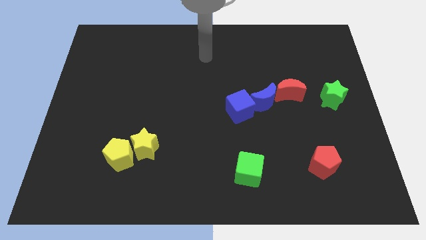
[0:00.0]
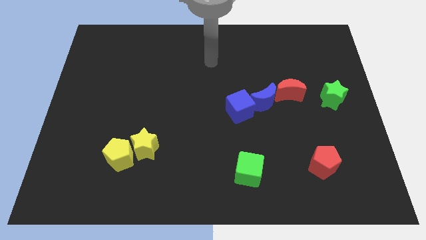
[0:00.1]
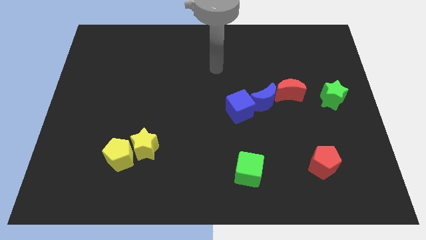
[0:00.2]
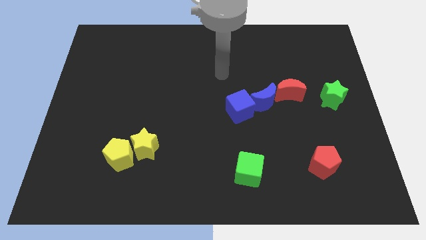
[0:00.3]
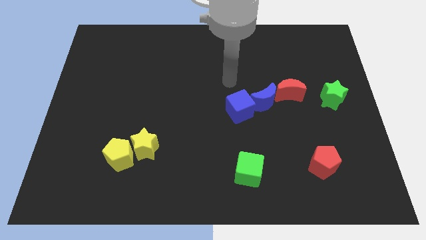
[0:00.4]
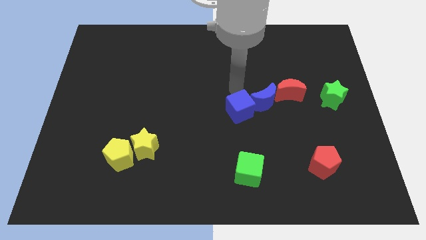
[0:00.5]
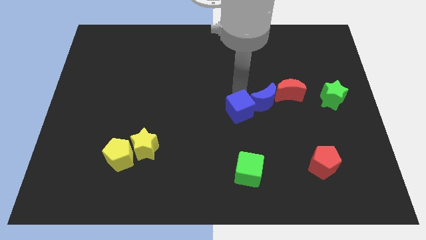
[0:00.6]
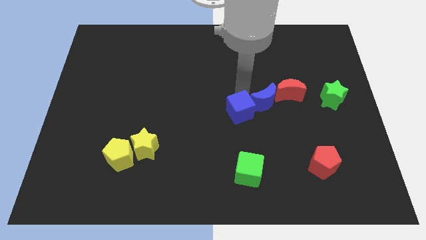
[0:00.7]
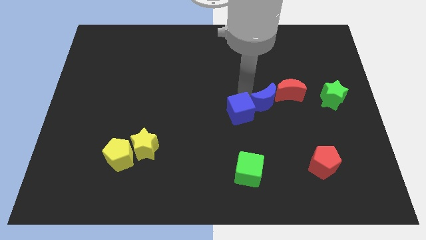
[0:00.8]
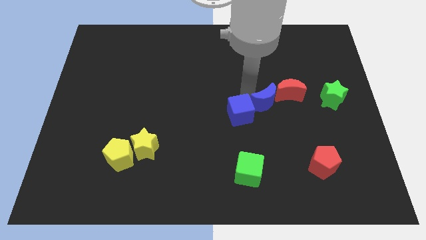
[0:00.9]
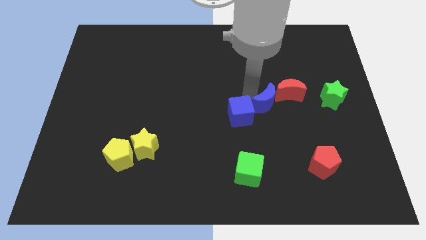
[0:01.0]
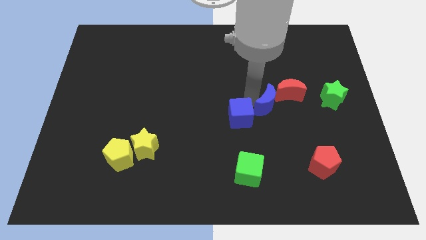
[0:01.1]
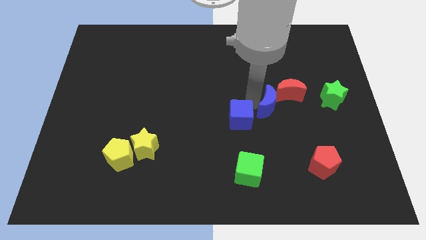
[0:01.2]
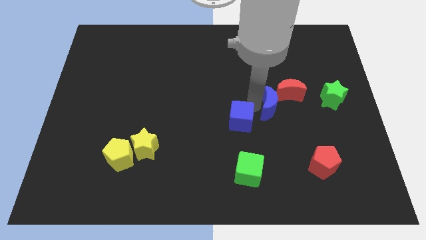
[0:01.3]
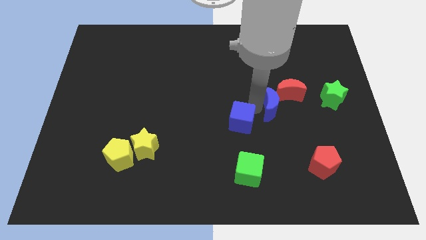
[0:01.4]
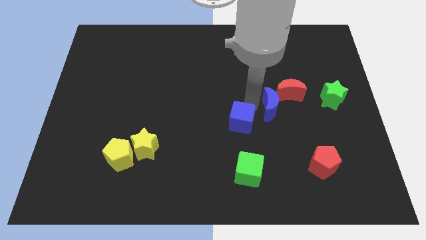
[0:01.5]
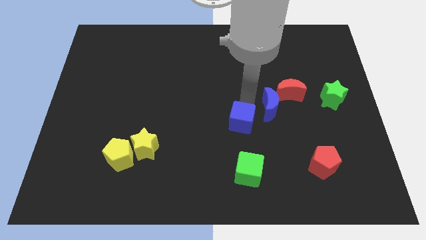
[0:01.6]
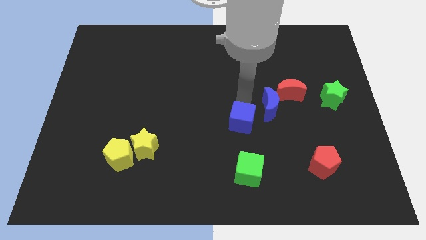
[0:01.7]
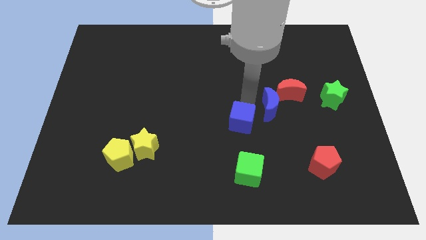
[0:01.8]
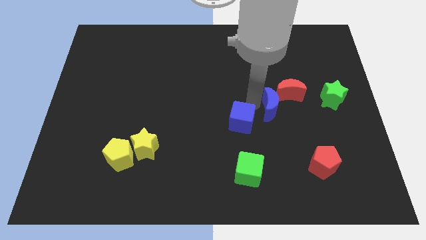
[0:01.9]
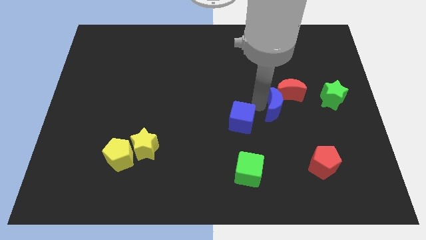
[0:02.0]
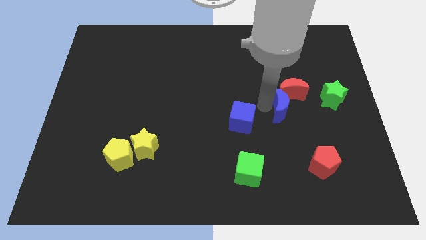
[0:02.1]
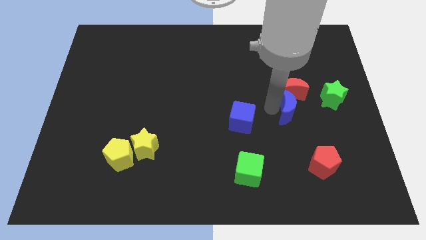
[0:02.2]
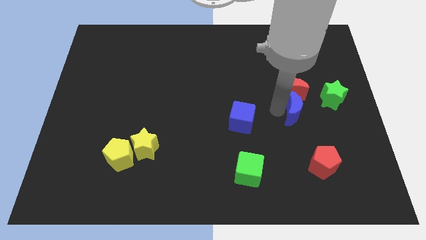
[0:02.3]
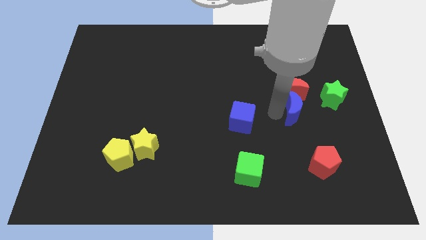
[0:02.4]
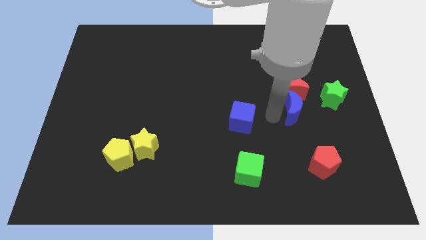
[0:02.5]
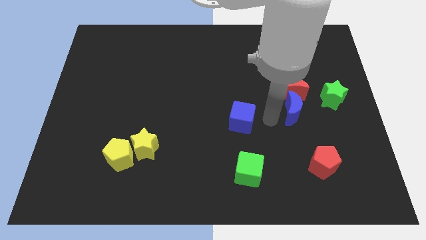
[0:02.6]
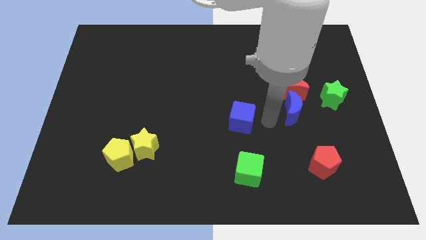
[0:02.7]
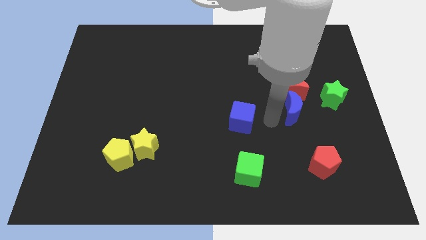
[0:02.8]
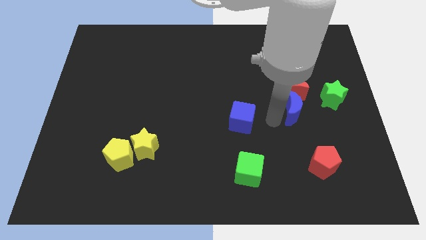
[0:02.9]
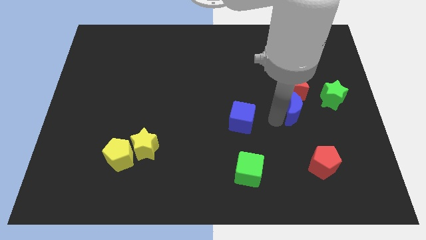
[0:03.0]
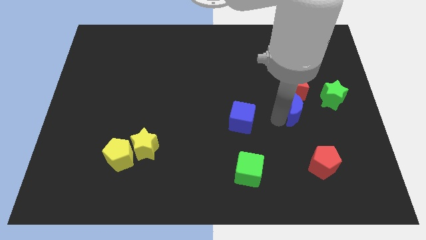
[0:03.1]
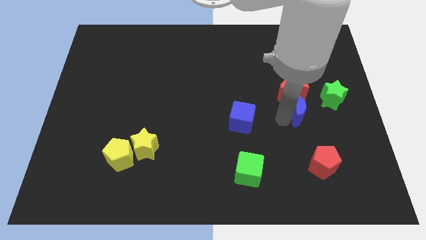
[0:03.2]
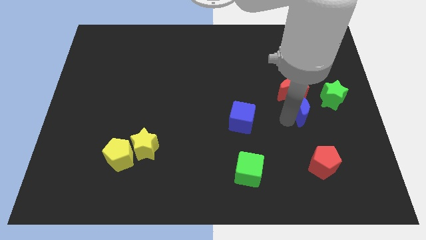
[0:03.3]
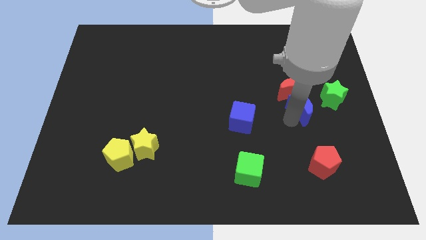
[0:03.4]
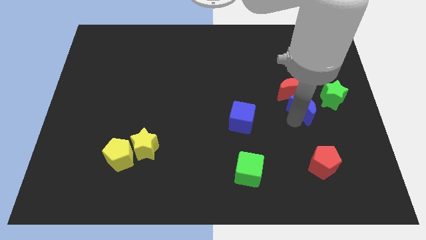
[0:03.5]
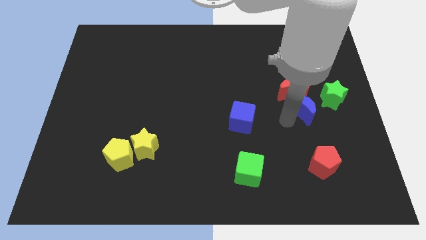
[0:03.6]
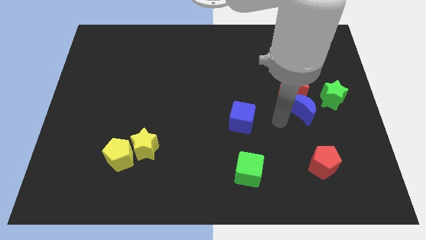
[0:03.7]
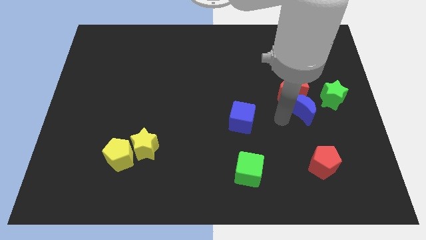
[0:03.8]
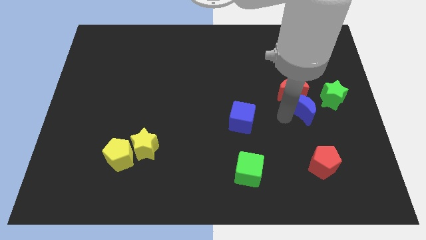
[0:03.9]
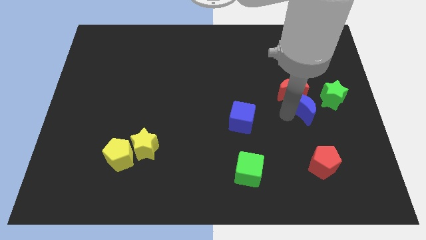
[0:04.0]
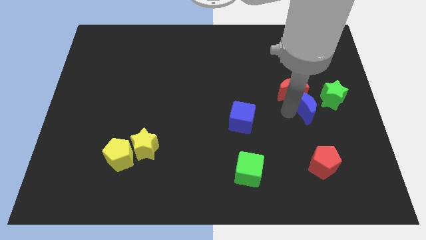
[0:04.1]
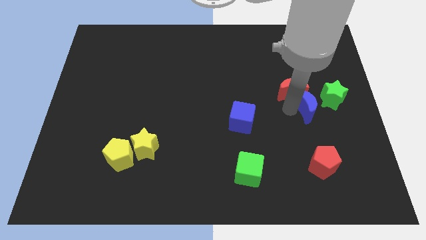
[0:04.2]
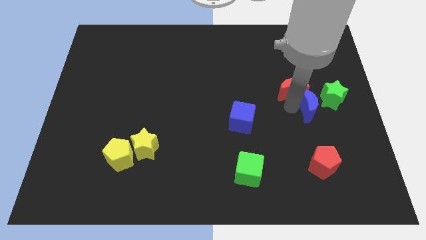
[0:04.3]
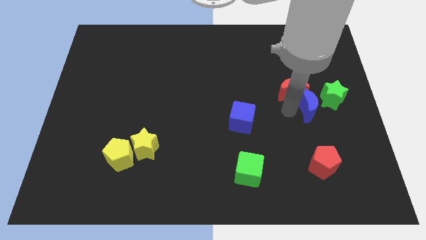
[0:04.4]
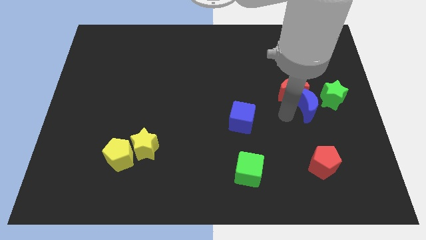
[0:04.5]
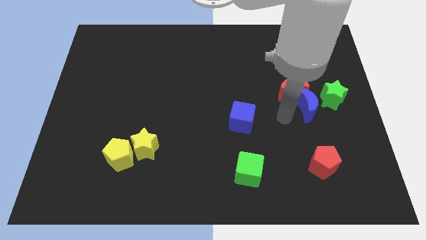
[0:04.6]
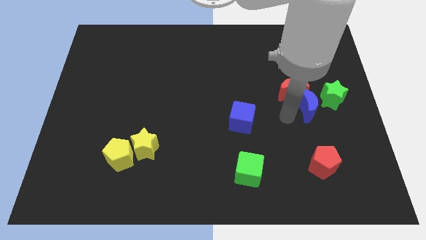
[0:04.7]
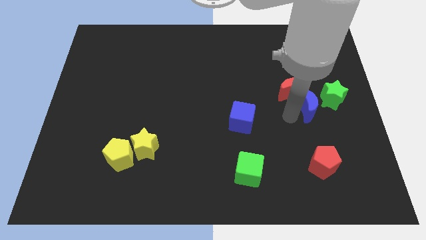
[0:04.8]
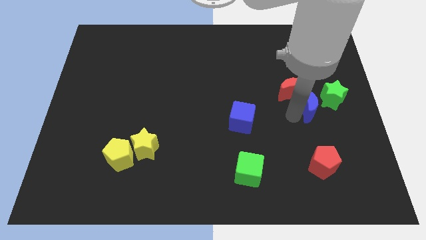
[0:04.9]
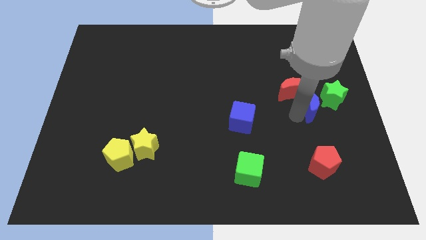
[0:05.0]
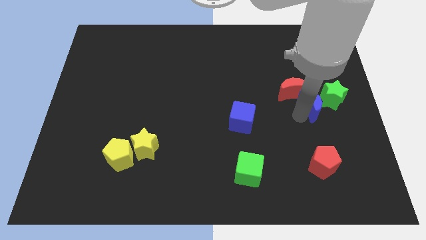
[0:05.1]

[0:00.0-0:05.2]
slide the blue moon close to the green star

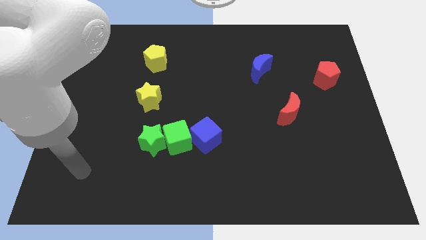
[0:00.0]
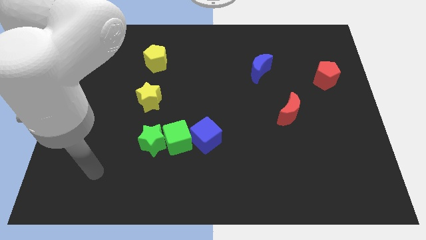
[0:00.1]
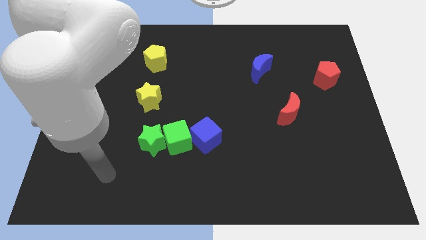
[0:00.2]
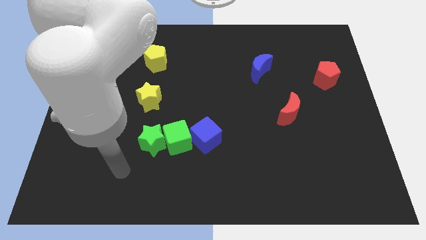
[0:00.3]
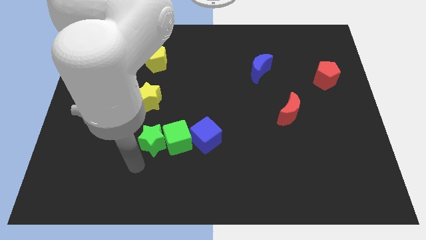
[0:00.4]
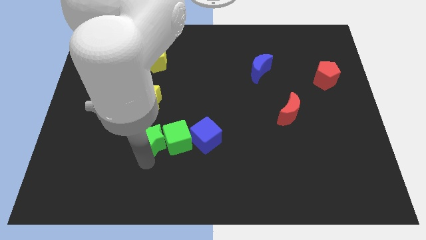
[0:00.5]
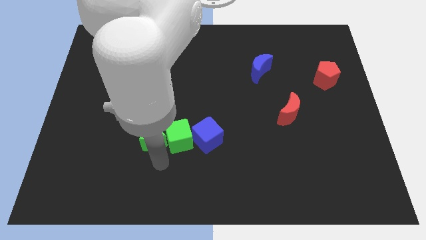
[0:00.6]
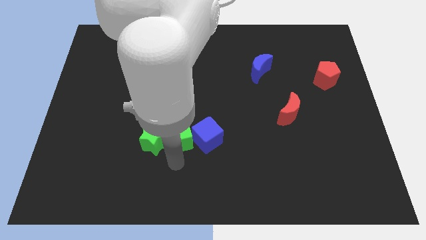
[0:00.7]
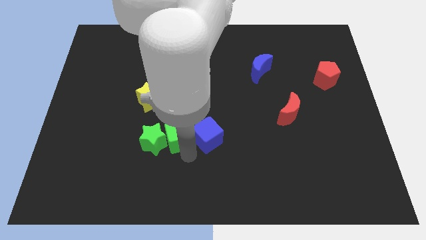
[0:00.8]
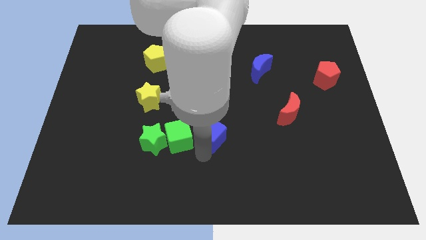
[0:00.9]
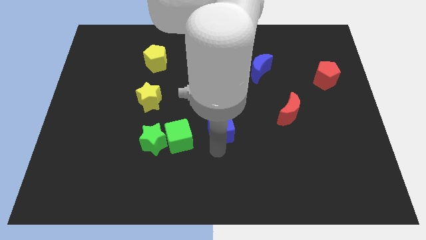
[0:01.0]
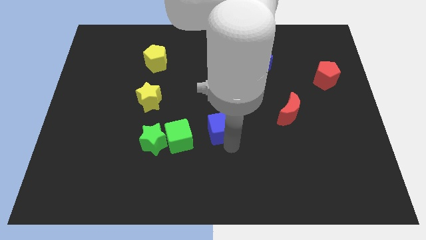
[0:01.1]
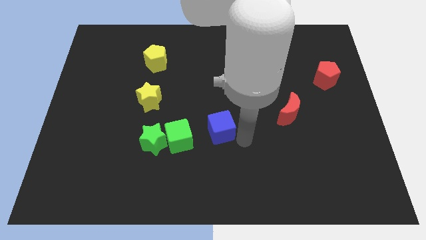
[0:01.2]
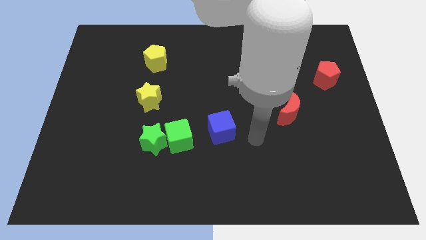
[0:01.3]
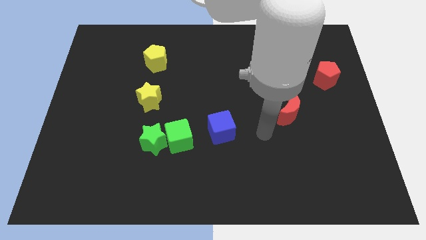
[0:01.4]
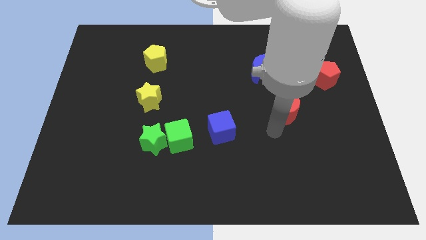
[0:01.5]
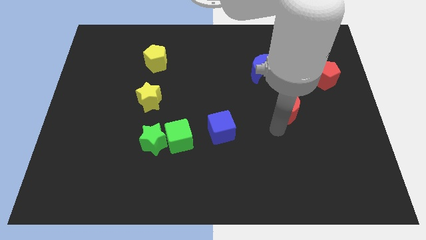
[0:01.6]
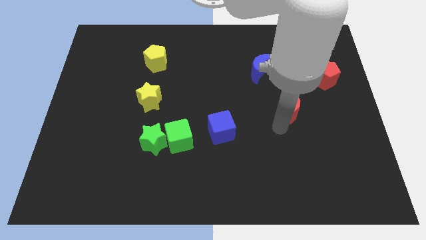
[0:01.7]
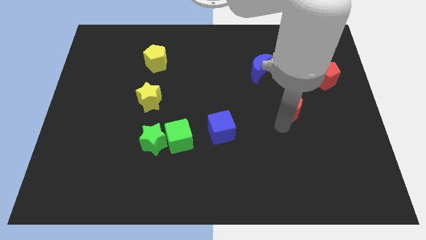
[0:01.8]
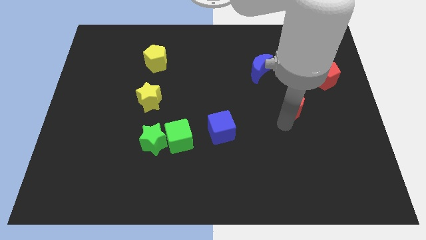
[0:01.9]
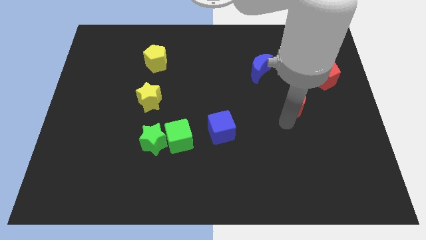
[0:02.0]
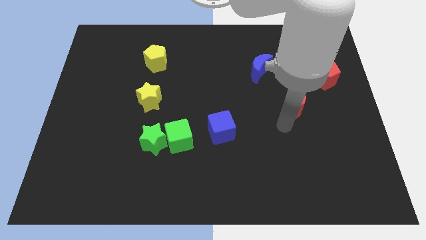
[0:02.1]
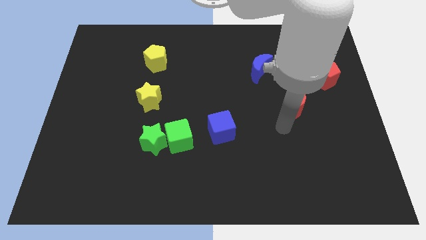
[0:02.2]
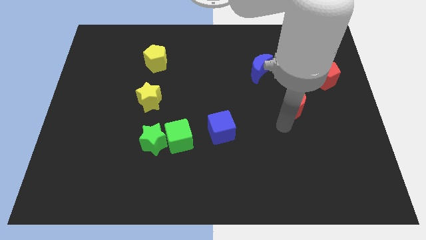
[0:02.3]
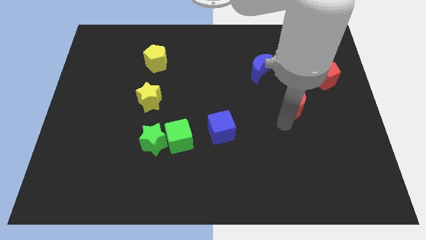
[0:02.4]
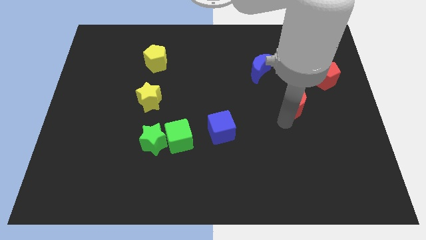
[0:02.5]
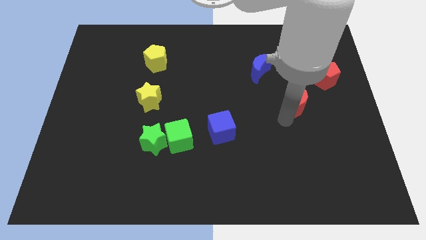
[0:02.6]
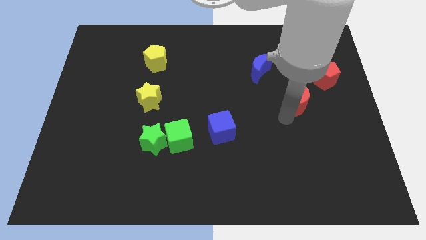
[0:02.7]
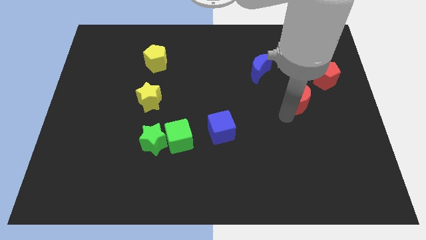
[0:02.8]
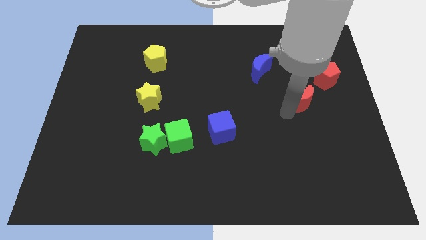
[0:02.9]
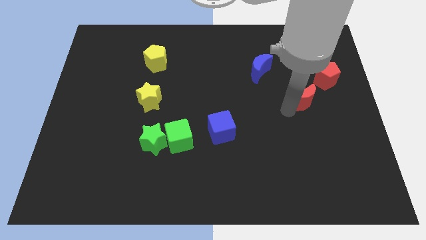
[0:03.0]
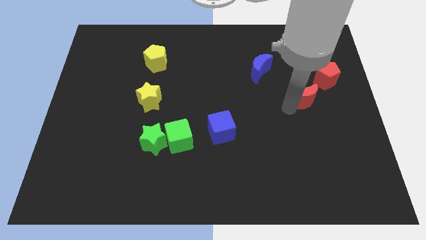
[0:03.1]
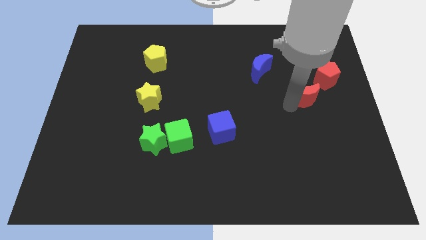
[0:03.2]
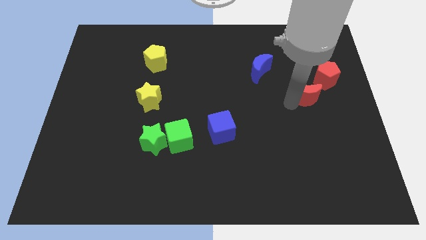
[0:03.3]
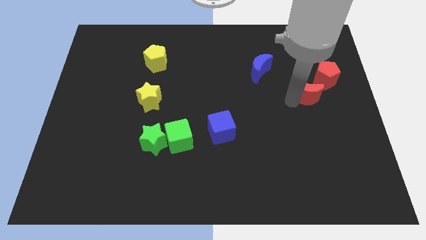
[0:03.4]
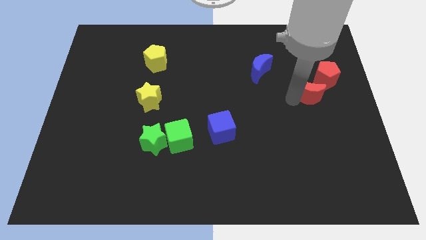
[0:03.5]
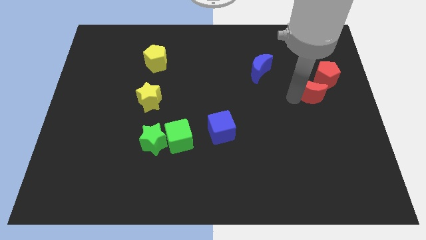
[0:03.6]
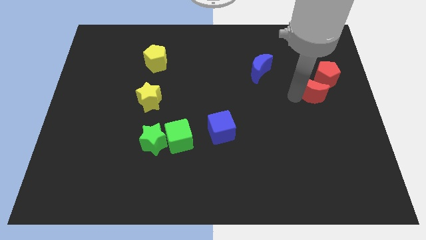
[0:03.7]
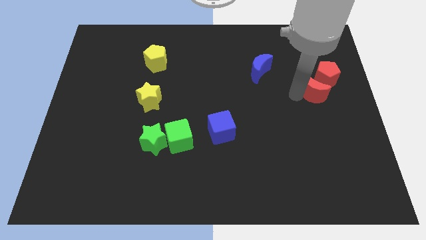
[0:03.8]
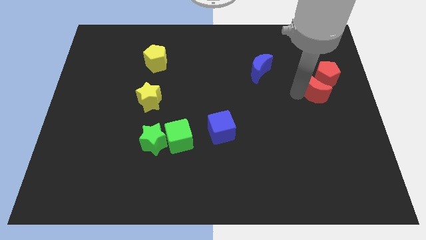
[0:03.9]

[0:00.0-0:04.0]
push the red moon next to the red pentagon
